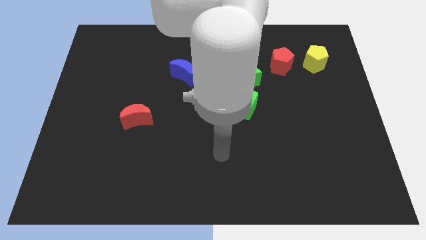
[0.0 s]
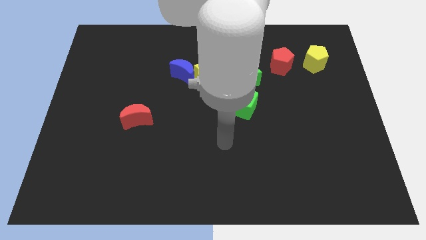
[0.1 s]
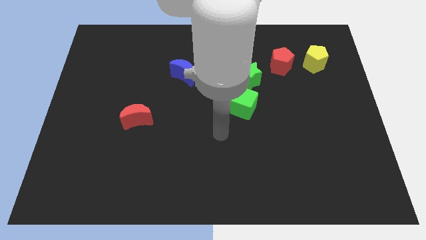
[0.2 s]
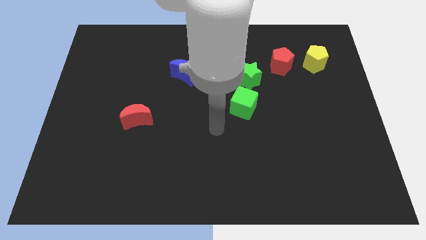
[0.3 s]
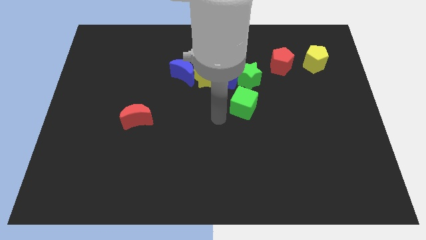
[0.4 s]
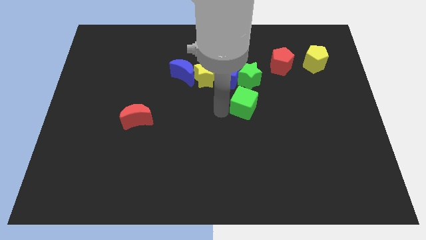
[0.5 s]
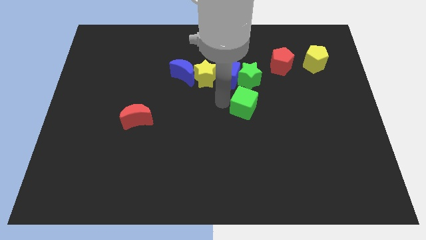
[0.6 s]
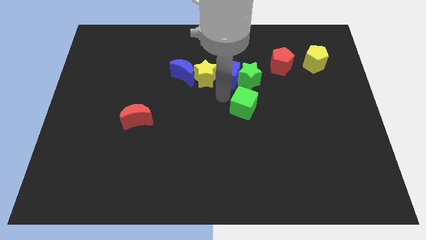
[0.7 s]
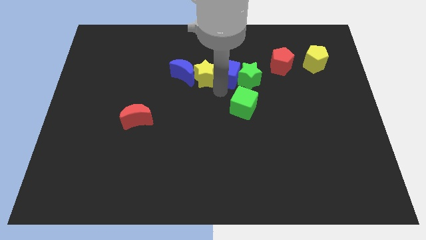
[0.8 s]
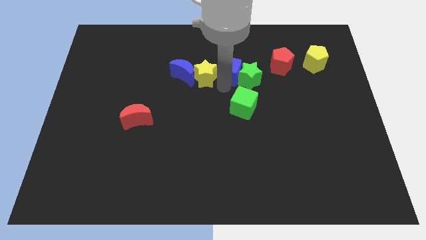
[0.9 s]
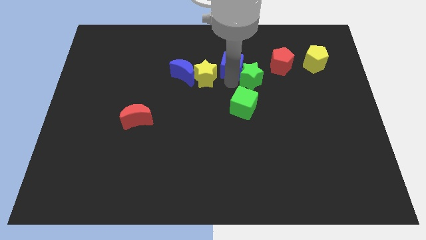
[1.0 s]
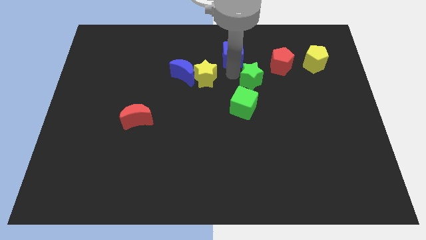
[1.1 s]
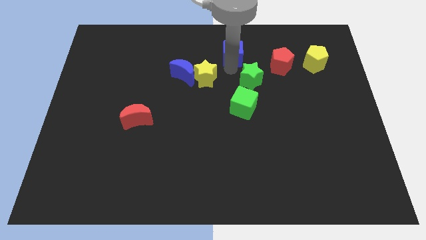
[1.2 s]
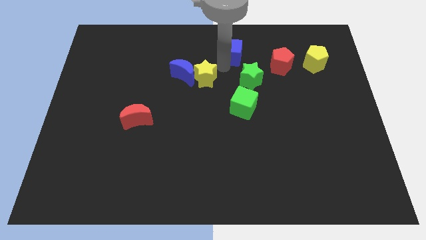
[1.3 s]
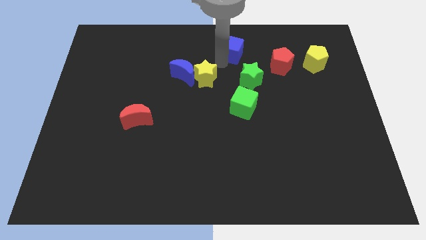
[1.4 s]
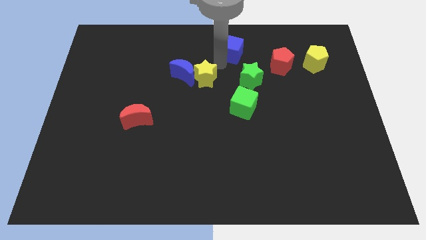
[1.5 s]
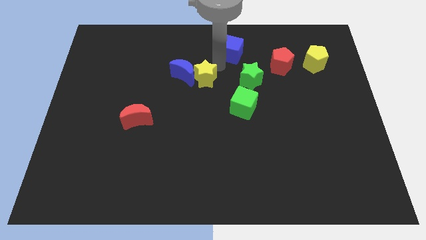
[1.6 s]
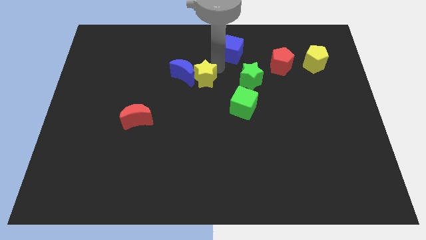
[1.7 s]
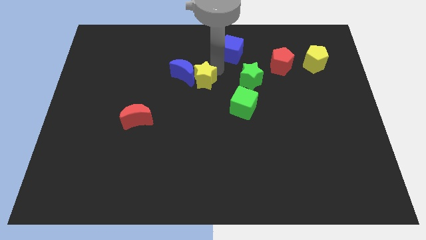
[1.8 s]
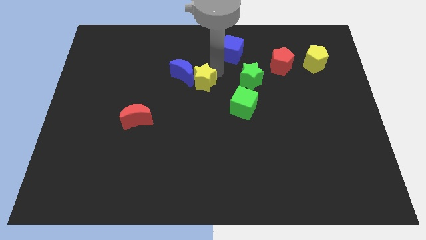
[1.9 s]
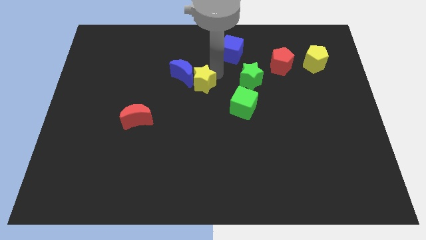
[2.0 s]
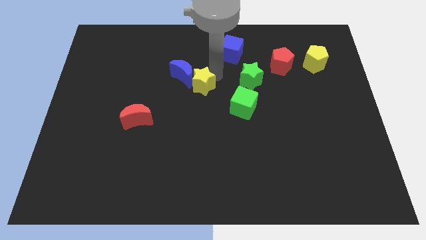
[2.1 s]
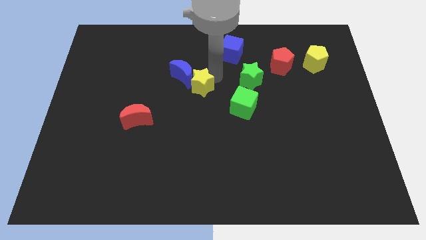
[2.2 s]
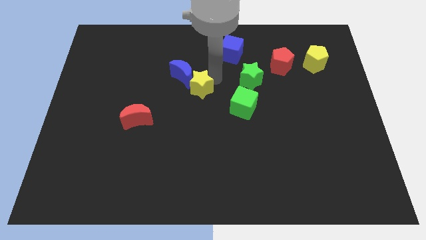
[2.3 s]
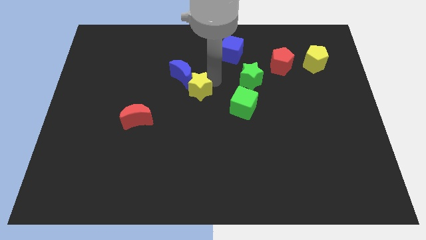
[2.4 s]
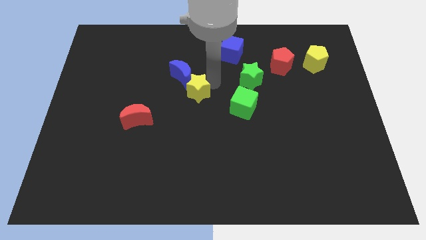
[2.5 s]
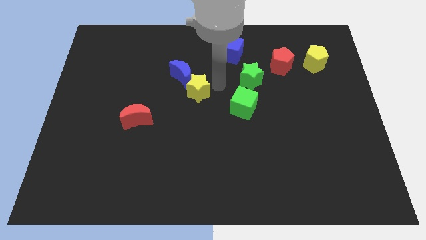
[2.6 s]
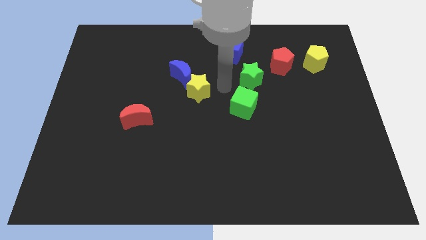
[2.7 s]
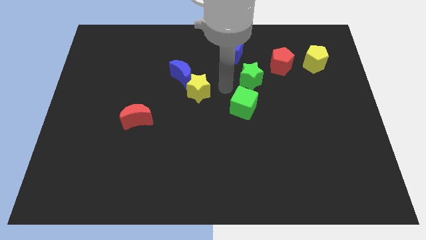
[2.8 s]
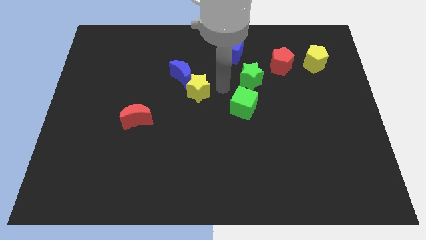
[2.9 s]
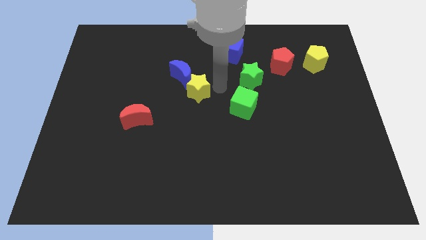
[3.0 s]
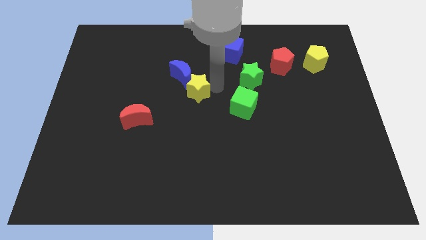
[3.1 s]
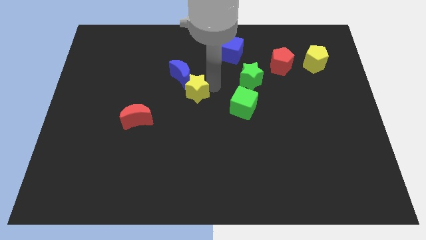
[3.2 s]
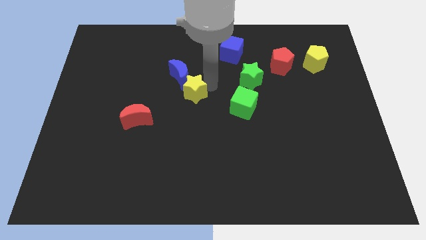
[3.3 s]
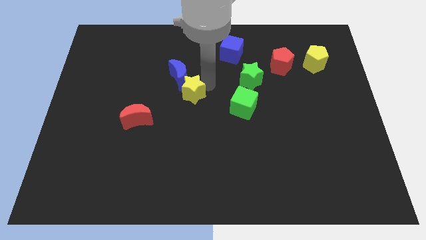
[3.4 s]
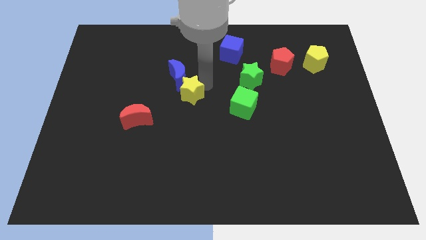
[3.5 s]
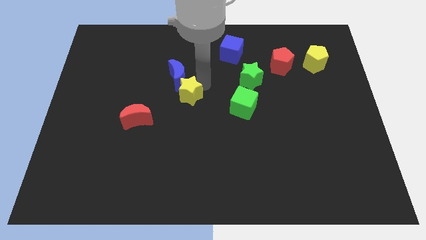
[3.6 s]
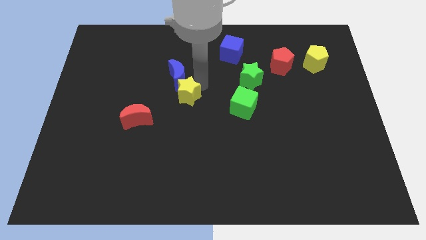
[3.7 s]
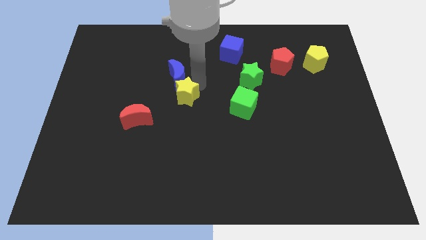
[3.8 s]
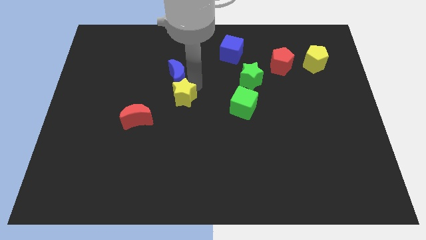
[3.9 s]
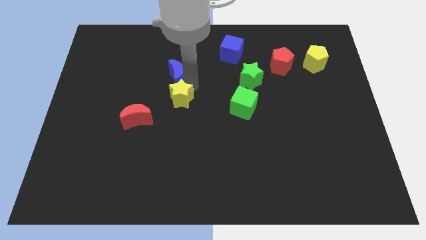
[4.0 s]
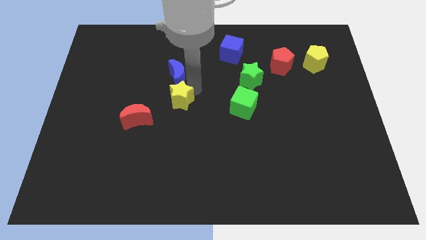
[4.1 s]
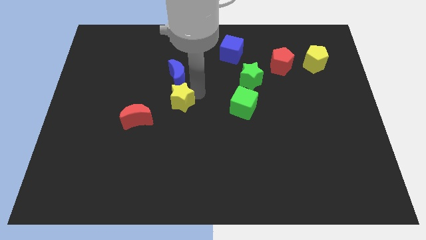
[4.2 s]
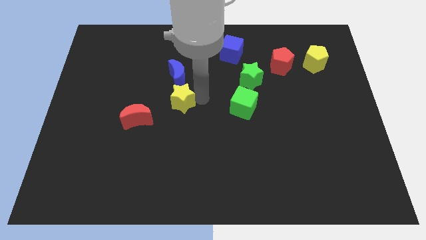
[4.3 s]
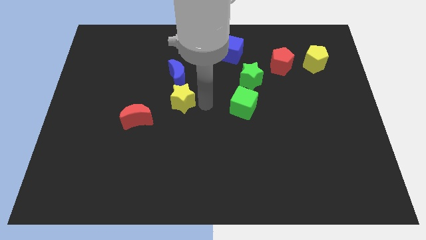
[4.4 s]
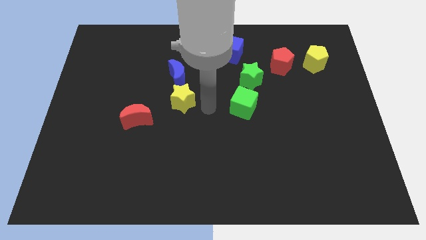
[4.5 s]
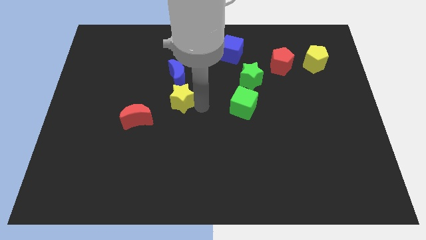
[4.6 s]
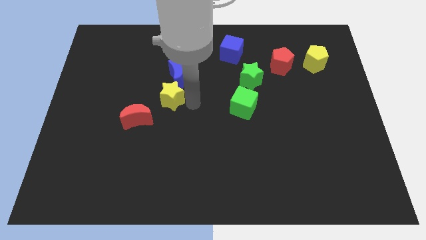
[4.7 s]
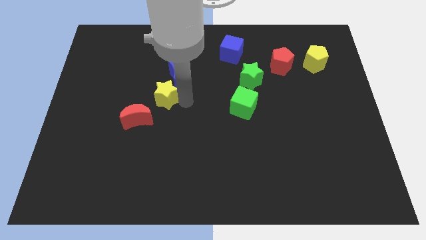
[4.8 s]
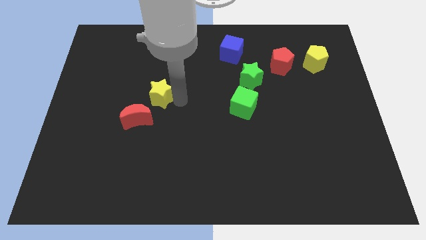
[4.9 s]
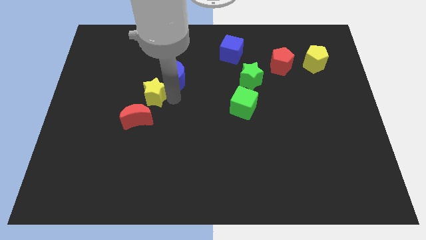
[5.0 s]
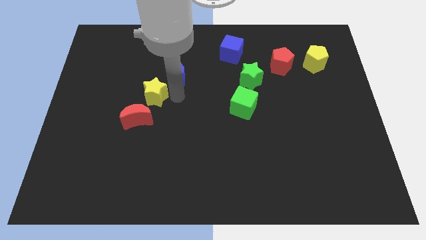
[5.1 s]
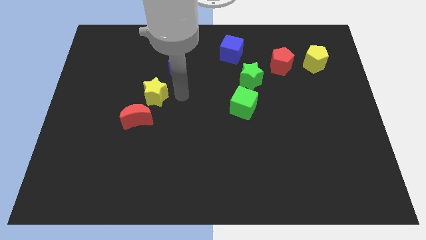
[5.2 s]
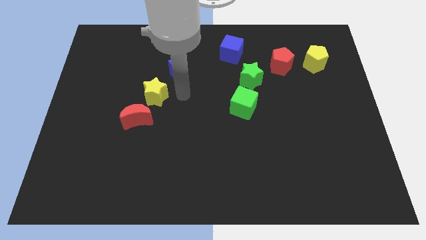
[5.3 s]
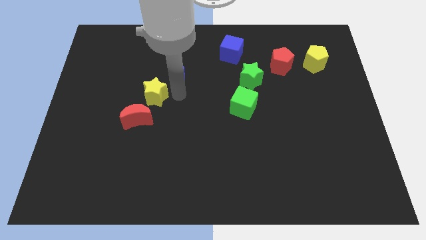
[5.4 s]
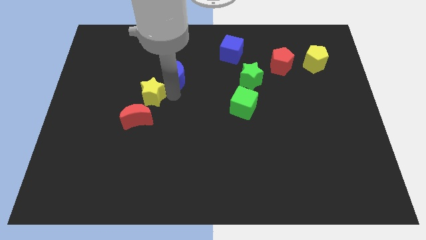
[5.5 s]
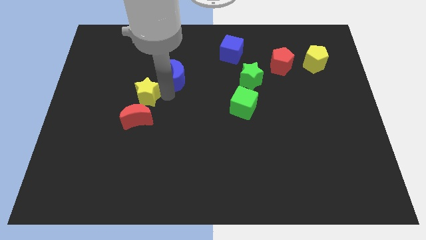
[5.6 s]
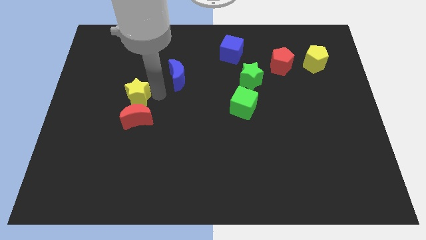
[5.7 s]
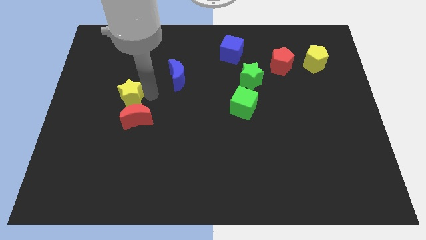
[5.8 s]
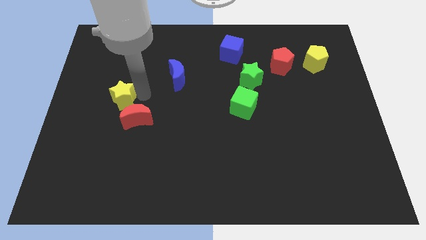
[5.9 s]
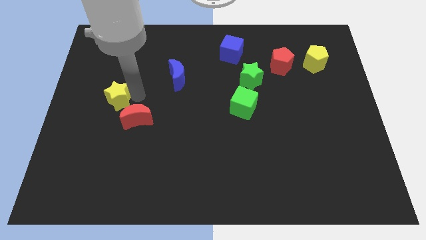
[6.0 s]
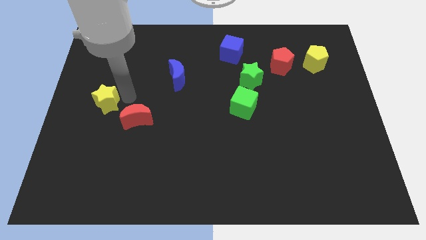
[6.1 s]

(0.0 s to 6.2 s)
put the yellow star to the left side

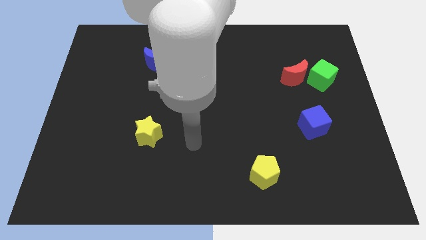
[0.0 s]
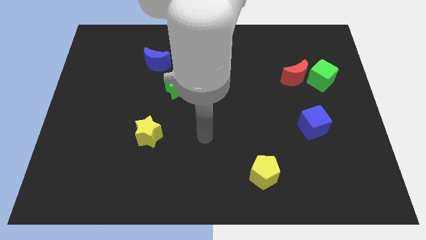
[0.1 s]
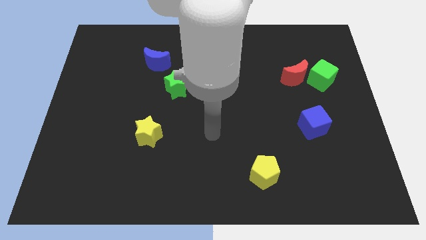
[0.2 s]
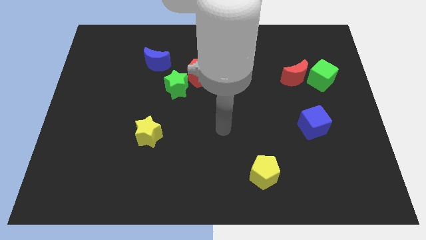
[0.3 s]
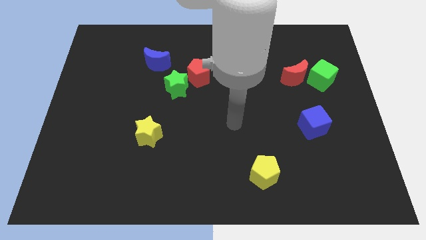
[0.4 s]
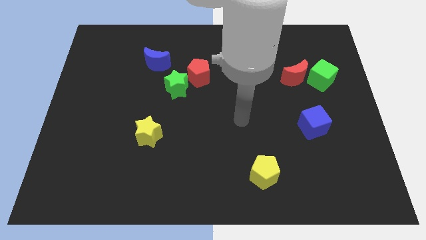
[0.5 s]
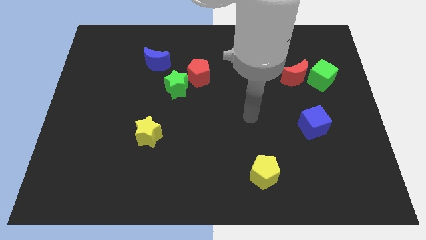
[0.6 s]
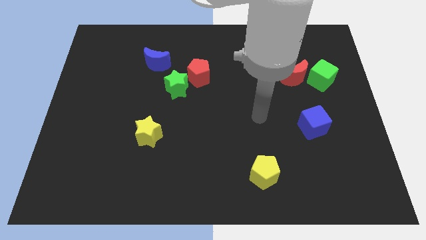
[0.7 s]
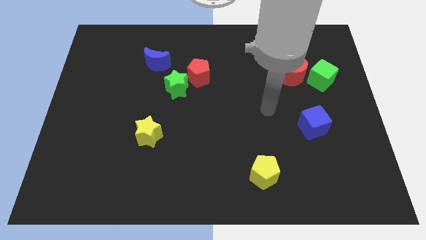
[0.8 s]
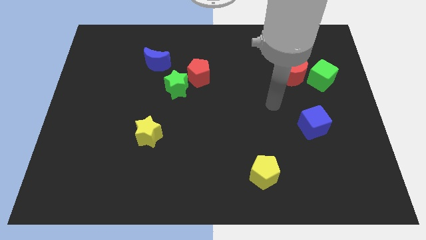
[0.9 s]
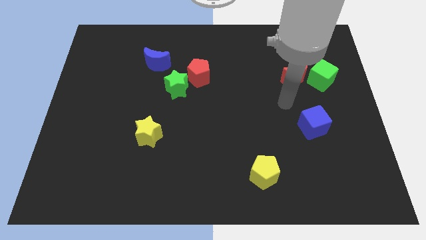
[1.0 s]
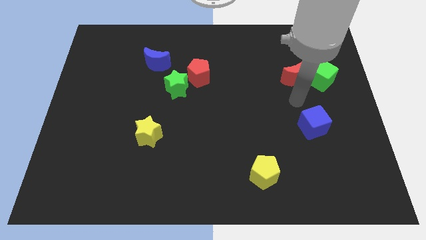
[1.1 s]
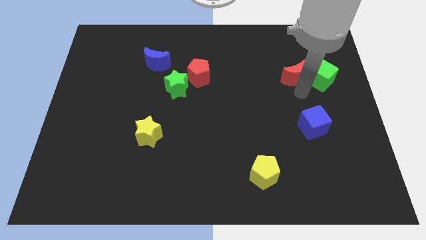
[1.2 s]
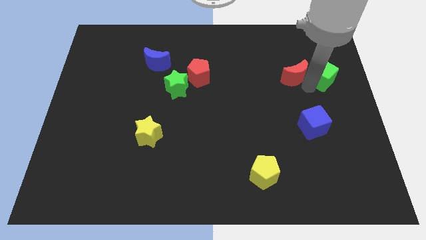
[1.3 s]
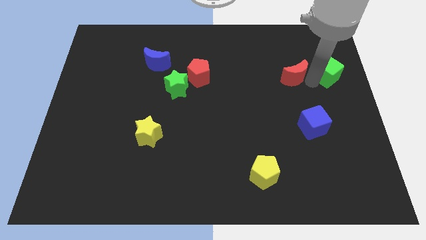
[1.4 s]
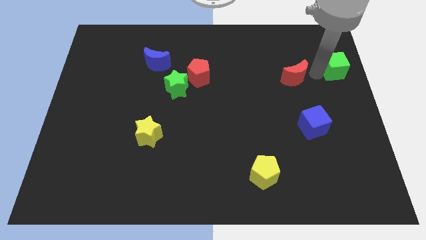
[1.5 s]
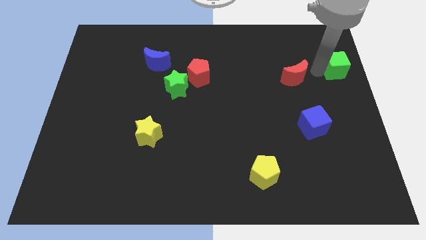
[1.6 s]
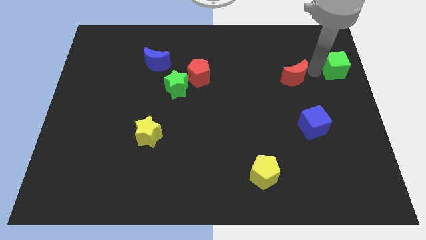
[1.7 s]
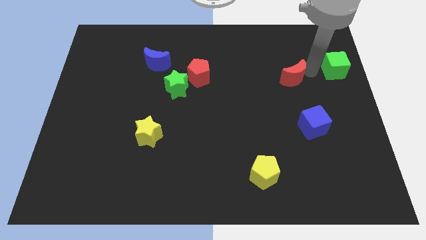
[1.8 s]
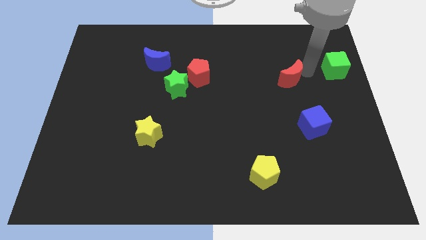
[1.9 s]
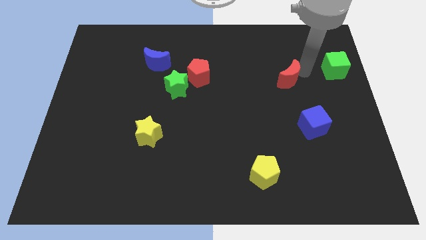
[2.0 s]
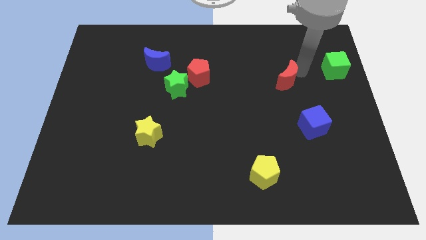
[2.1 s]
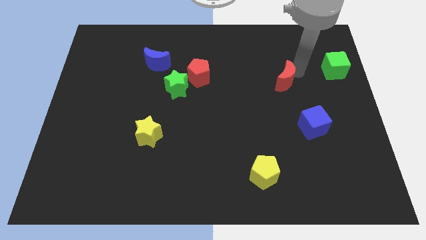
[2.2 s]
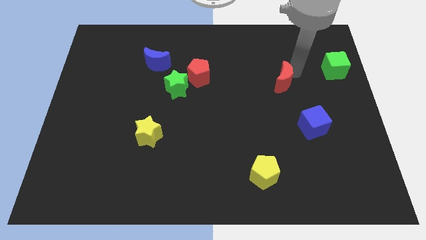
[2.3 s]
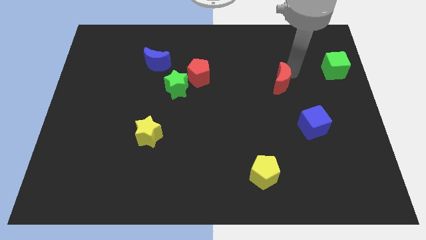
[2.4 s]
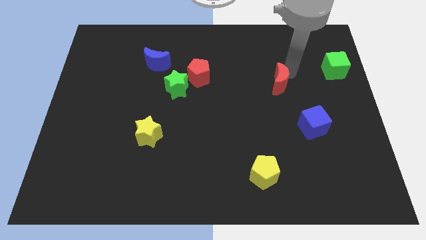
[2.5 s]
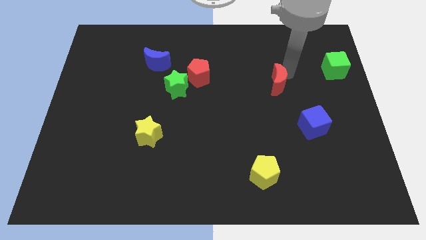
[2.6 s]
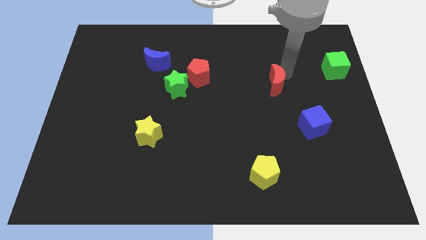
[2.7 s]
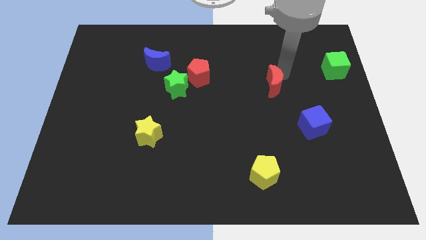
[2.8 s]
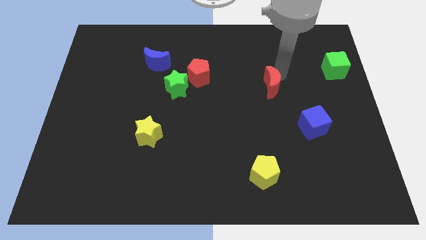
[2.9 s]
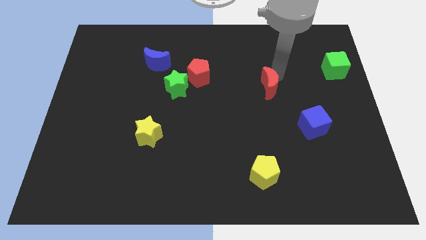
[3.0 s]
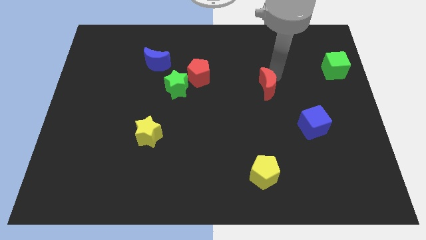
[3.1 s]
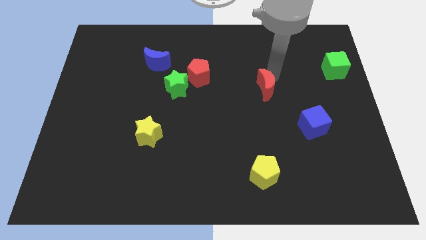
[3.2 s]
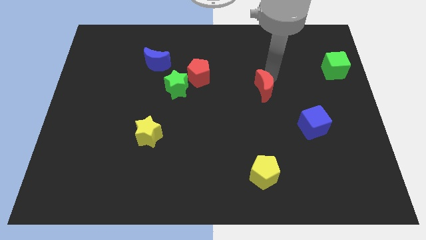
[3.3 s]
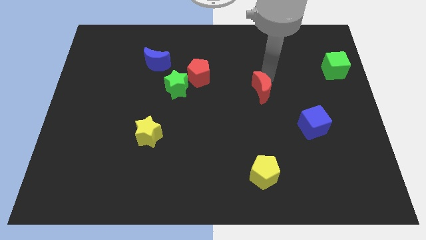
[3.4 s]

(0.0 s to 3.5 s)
slide the red moon to the center of the board
